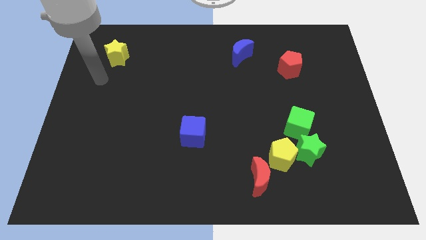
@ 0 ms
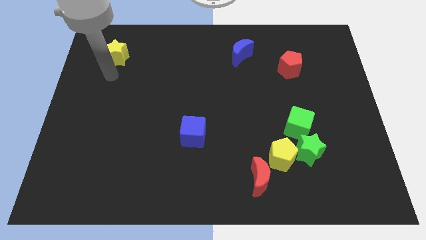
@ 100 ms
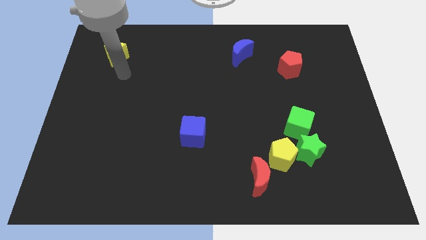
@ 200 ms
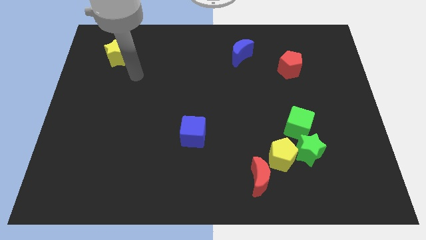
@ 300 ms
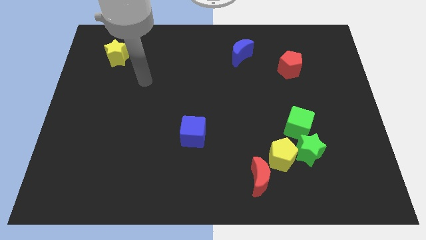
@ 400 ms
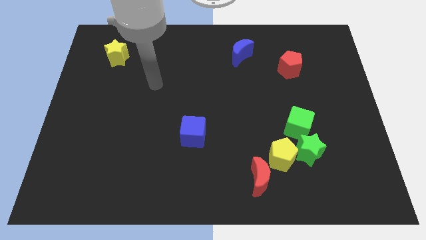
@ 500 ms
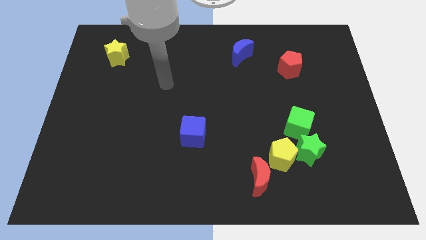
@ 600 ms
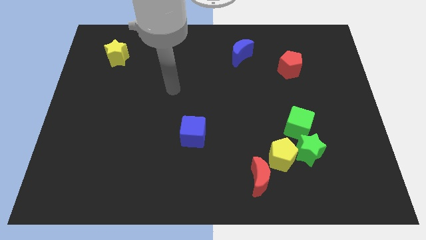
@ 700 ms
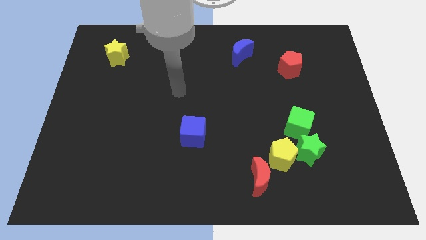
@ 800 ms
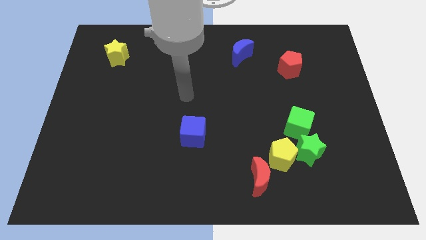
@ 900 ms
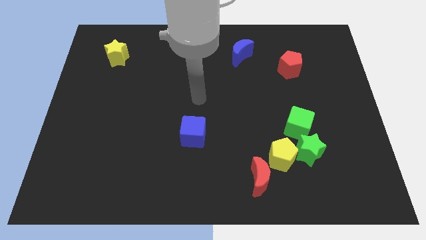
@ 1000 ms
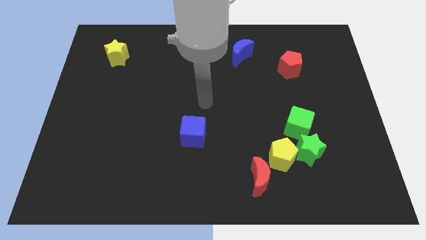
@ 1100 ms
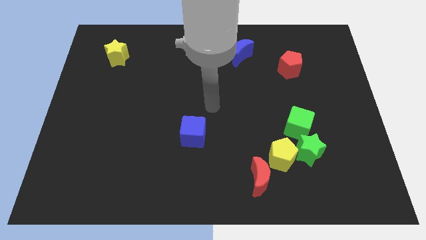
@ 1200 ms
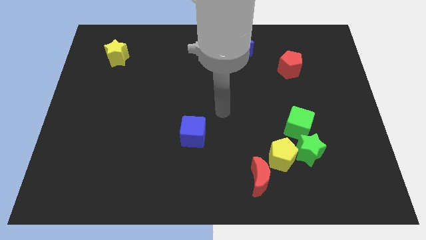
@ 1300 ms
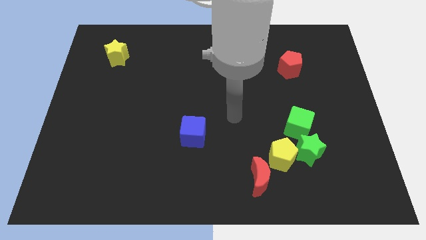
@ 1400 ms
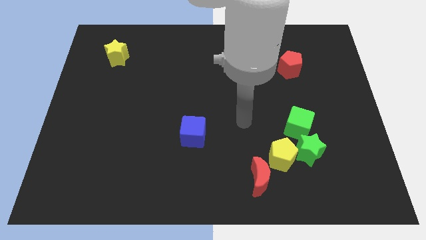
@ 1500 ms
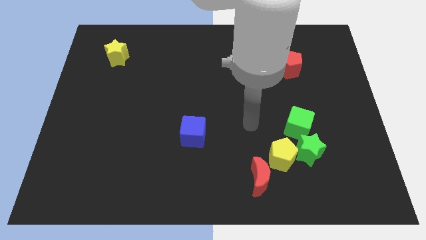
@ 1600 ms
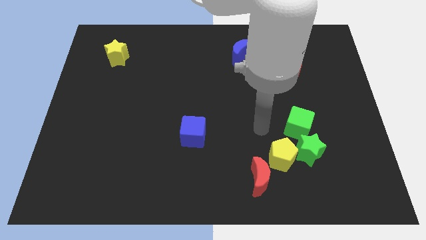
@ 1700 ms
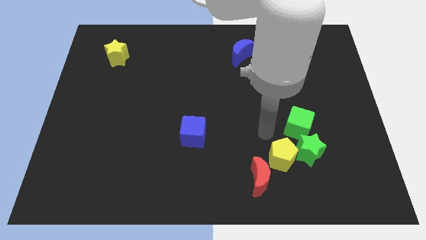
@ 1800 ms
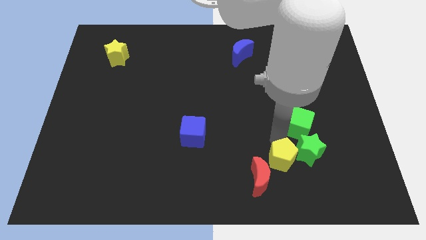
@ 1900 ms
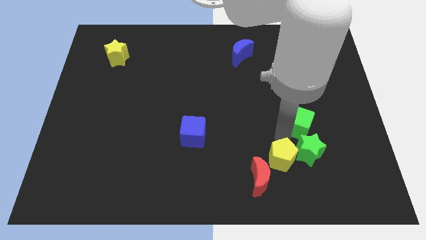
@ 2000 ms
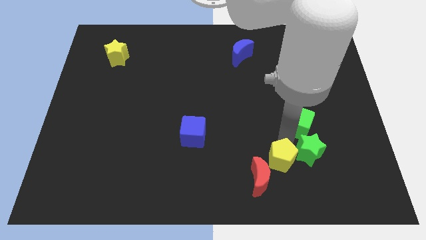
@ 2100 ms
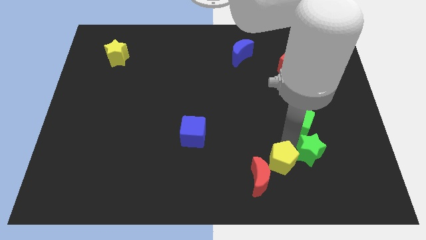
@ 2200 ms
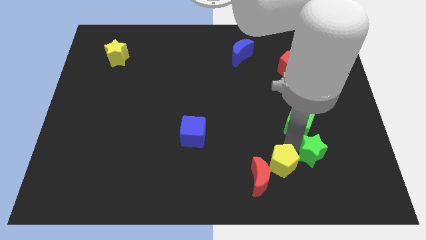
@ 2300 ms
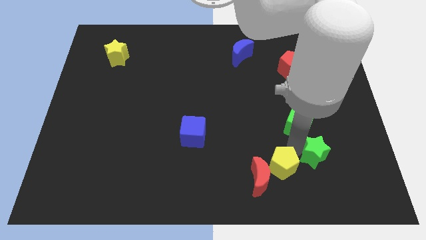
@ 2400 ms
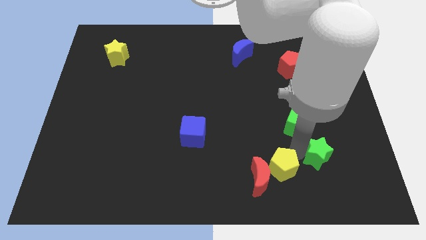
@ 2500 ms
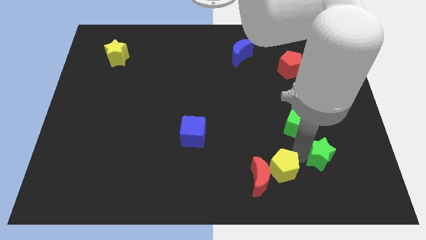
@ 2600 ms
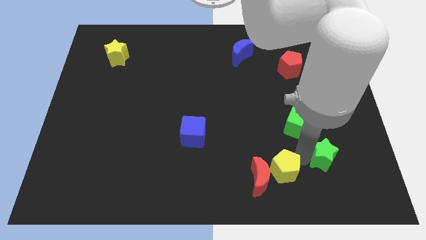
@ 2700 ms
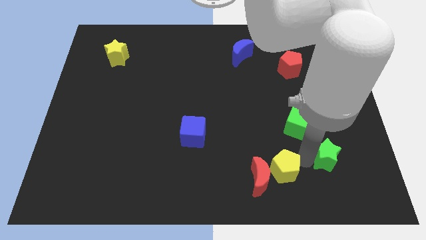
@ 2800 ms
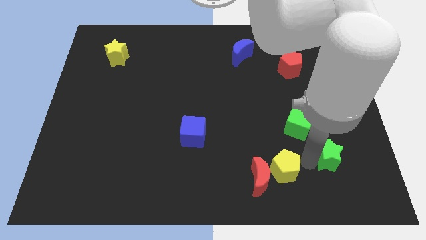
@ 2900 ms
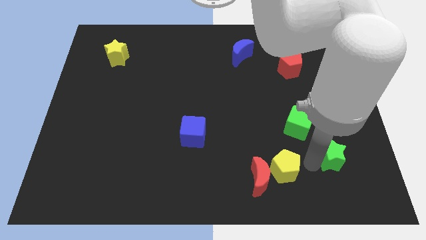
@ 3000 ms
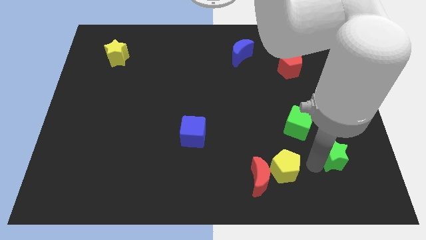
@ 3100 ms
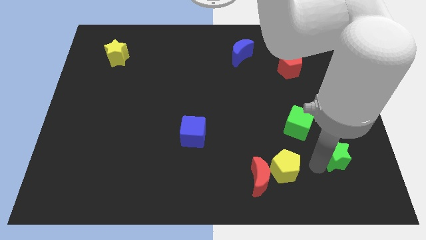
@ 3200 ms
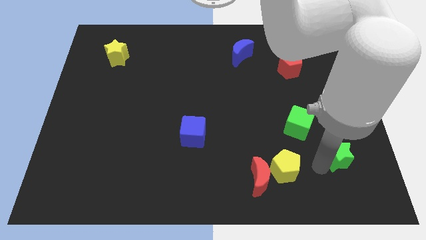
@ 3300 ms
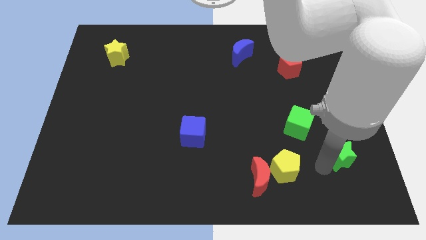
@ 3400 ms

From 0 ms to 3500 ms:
move the green star away from the yellow pentagon and green cube

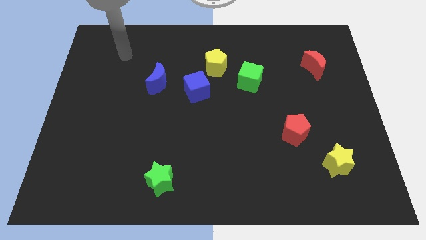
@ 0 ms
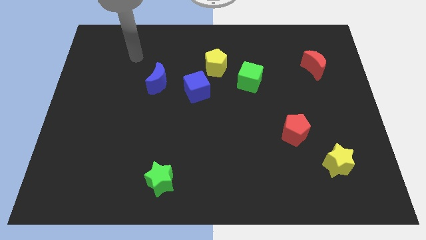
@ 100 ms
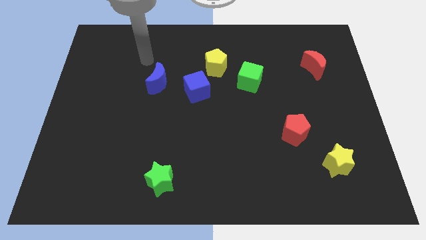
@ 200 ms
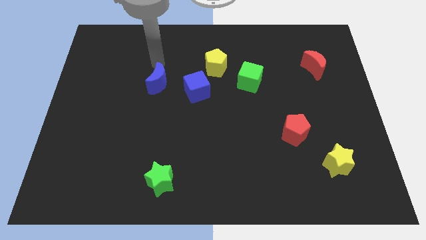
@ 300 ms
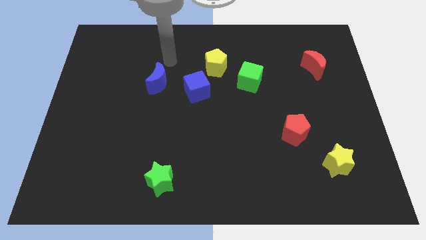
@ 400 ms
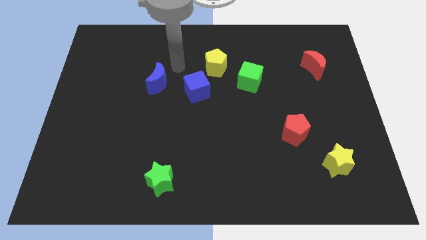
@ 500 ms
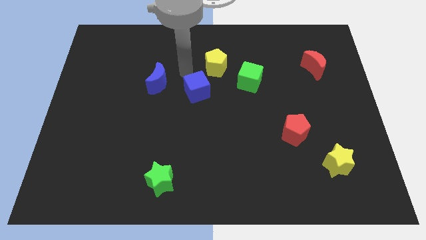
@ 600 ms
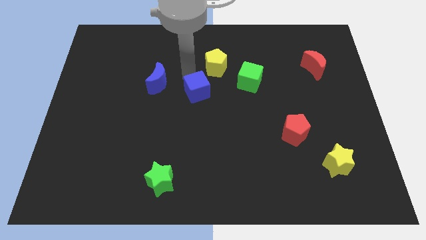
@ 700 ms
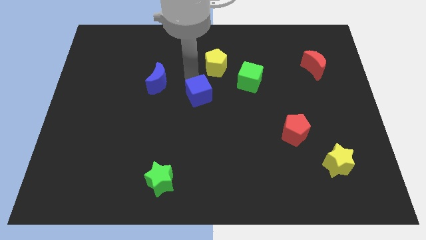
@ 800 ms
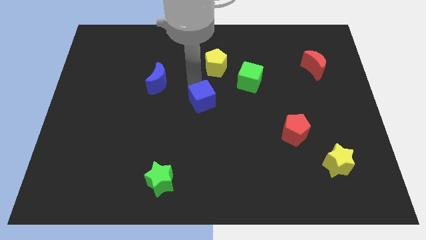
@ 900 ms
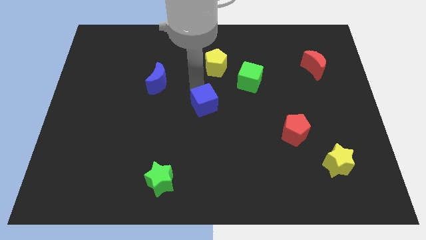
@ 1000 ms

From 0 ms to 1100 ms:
move the blue cube away from the yellow pentagon and blue moon

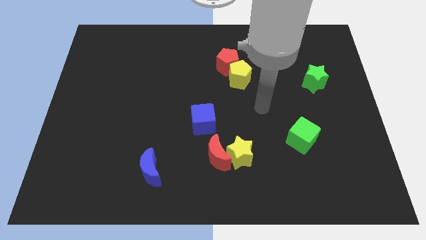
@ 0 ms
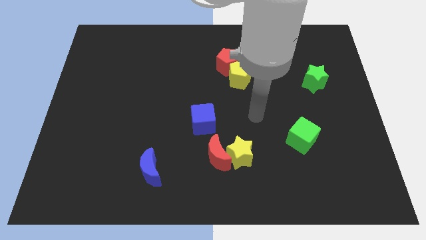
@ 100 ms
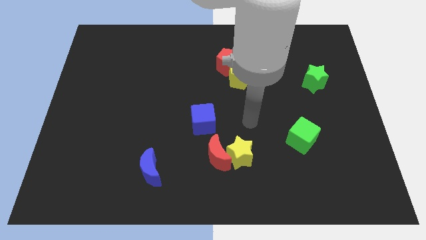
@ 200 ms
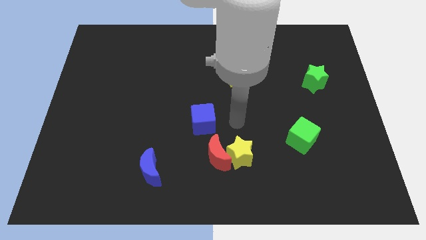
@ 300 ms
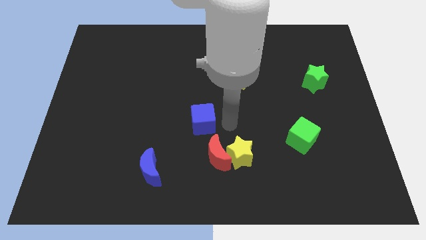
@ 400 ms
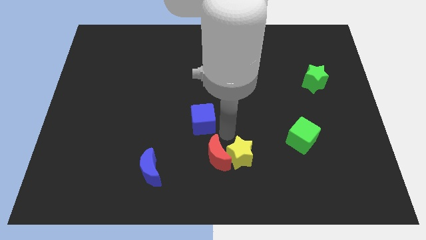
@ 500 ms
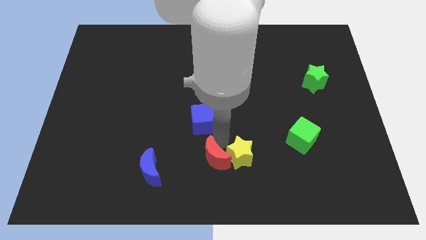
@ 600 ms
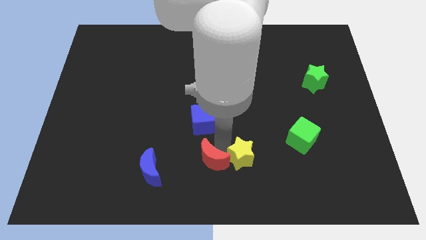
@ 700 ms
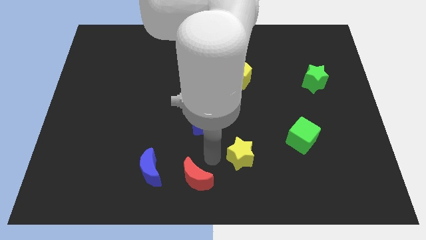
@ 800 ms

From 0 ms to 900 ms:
move the yellow star away from the red moon

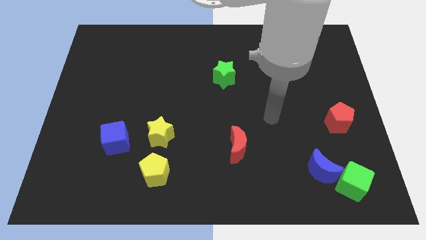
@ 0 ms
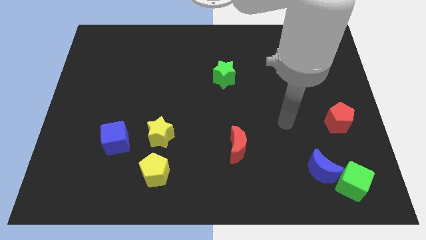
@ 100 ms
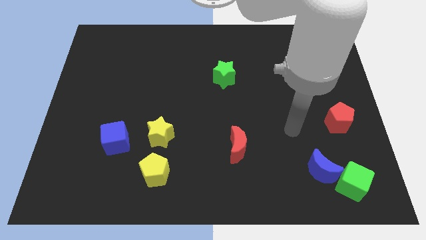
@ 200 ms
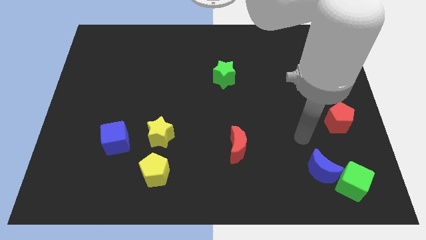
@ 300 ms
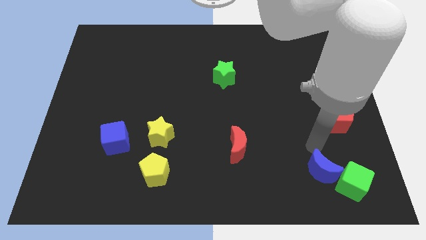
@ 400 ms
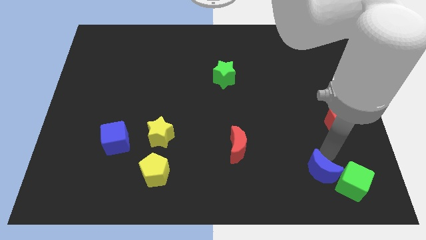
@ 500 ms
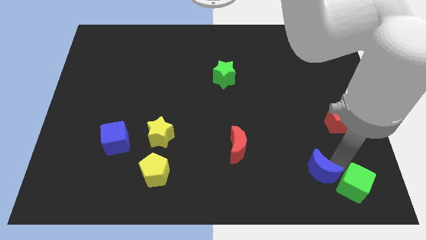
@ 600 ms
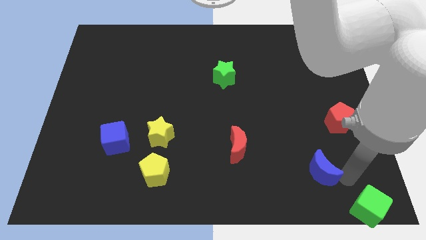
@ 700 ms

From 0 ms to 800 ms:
pull the blue moon apart from the green cube

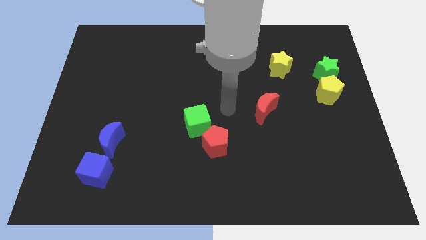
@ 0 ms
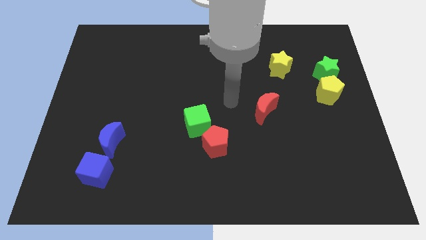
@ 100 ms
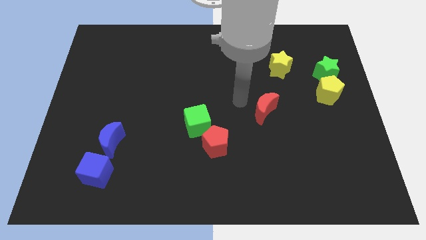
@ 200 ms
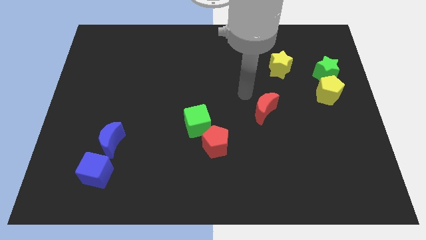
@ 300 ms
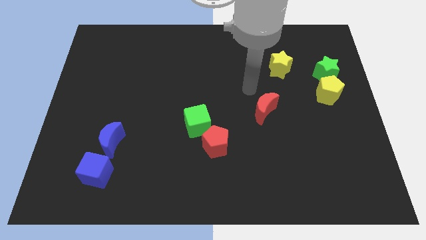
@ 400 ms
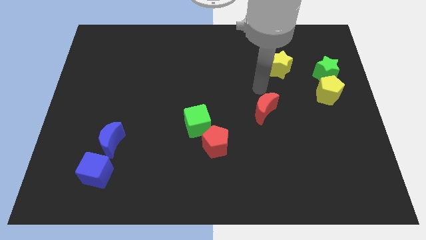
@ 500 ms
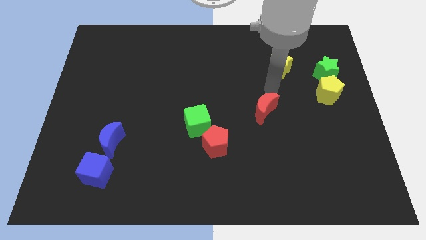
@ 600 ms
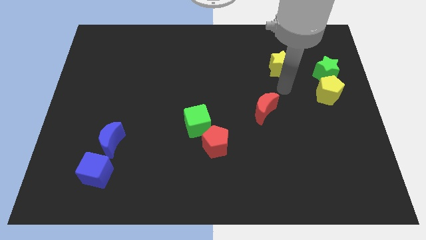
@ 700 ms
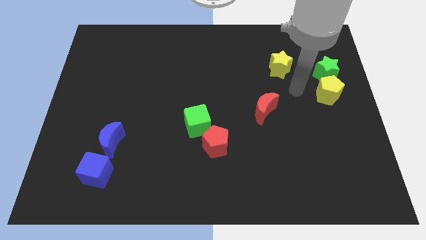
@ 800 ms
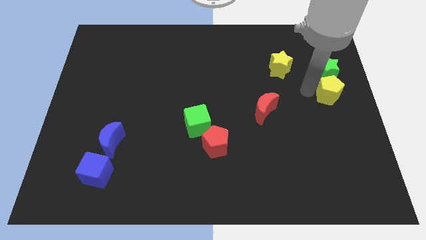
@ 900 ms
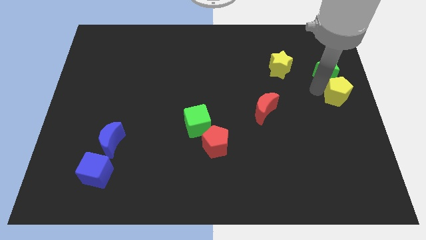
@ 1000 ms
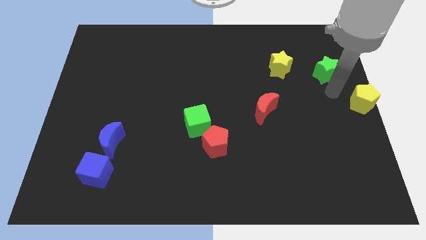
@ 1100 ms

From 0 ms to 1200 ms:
pull the green star apart from the yellow pentagon

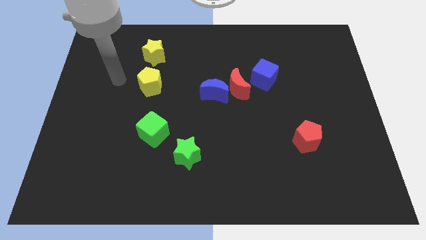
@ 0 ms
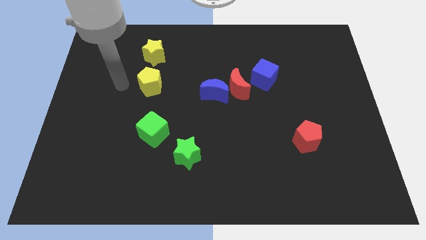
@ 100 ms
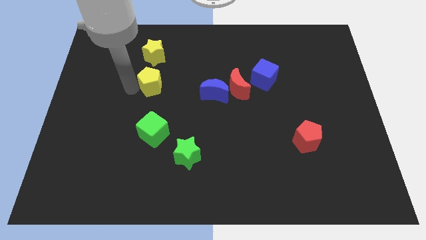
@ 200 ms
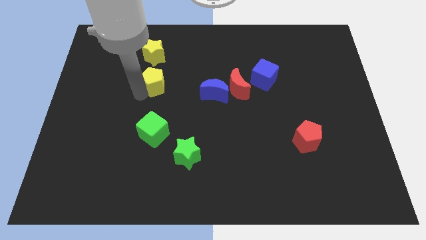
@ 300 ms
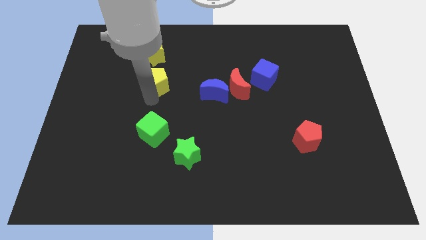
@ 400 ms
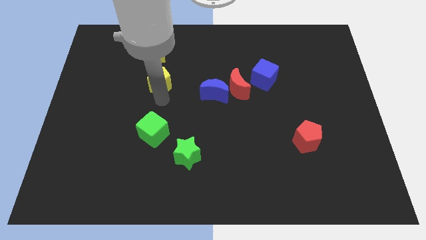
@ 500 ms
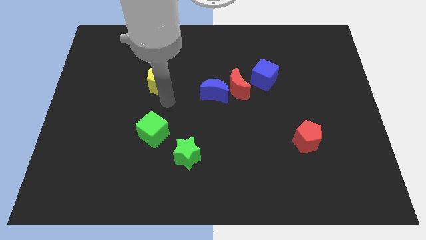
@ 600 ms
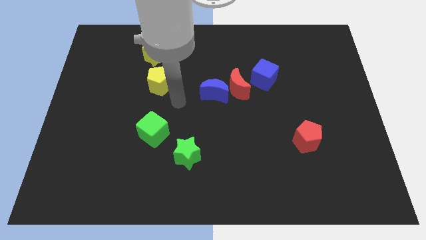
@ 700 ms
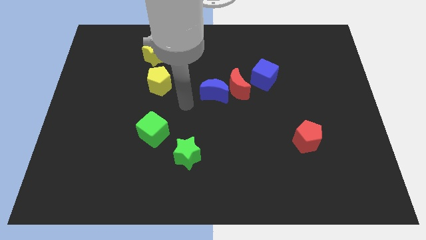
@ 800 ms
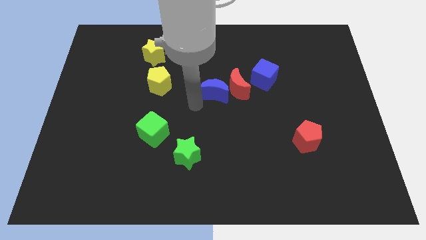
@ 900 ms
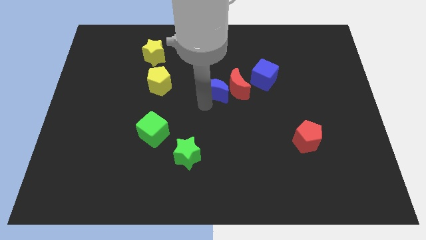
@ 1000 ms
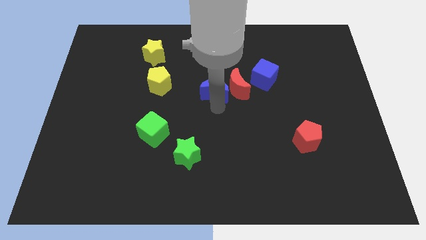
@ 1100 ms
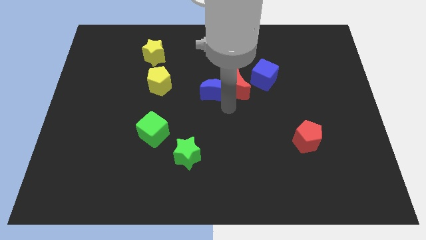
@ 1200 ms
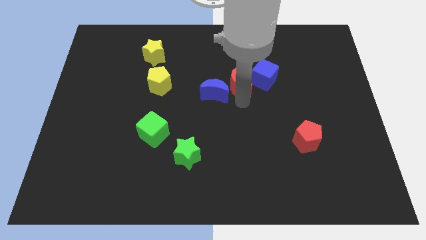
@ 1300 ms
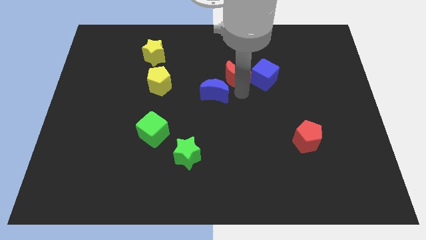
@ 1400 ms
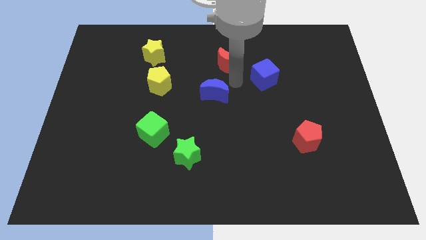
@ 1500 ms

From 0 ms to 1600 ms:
move the blue moon away from the red moon

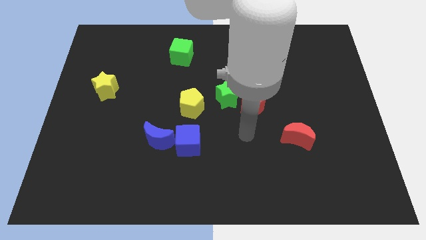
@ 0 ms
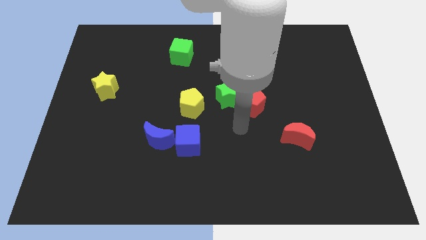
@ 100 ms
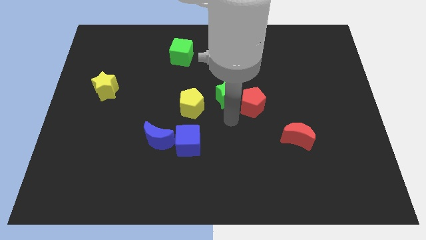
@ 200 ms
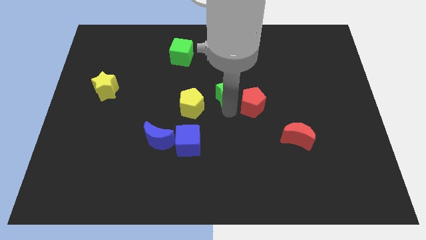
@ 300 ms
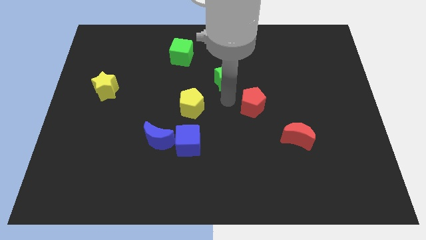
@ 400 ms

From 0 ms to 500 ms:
pull the red pentagon apart from the green star
